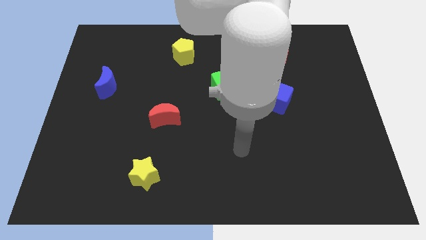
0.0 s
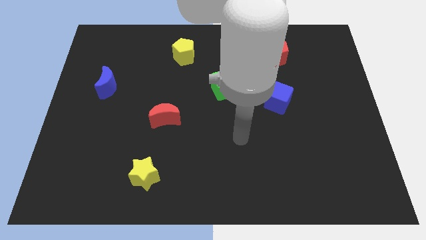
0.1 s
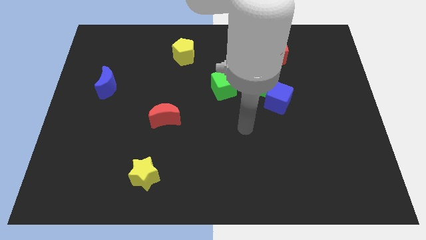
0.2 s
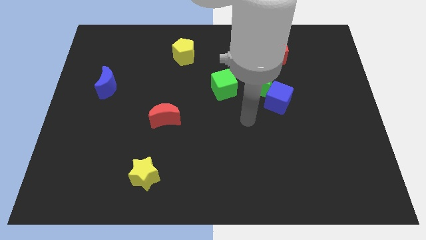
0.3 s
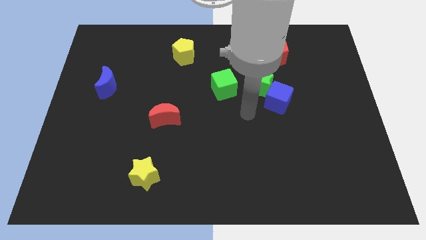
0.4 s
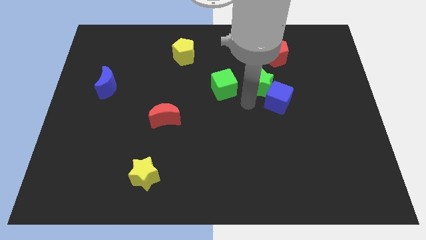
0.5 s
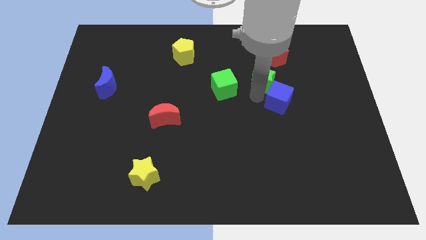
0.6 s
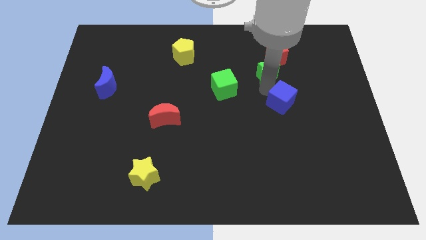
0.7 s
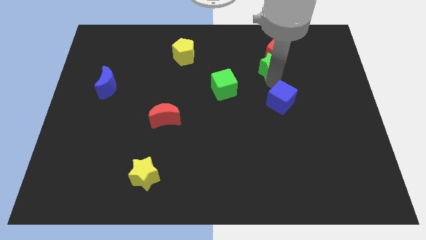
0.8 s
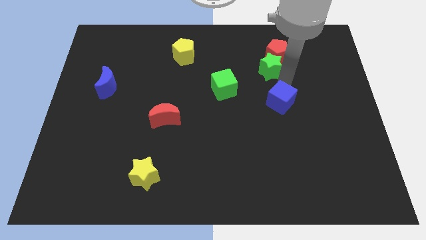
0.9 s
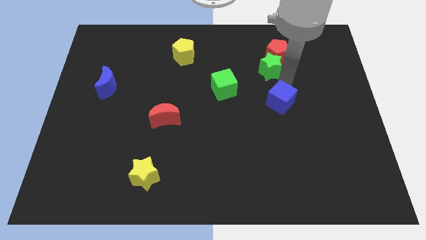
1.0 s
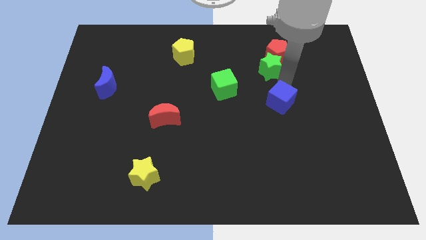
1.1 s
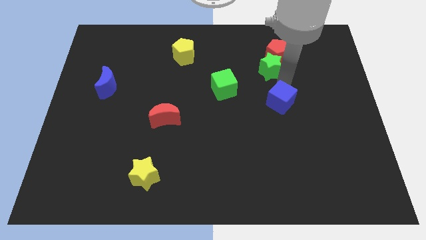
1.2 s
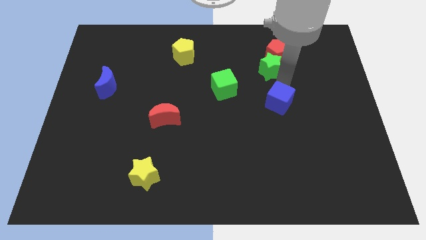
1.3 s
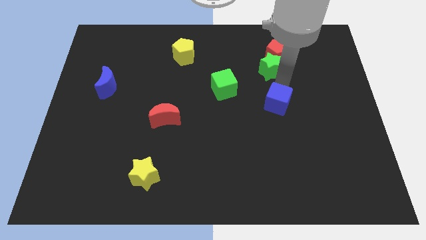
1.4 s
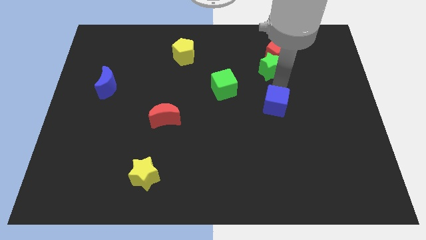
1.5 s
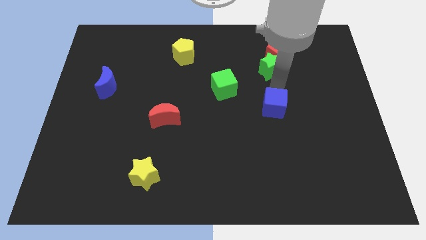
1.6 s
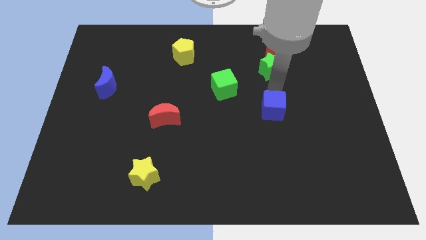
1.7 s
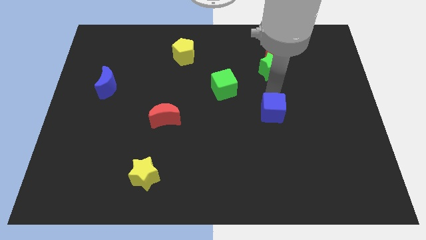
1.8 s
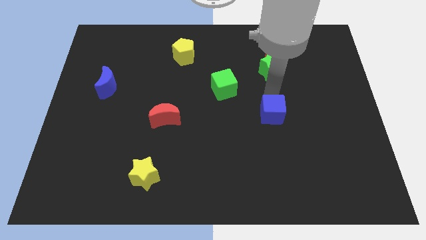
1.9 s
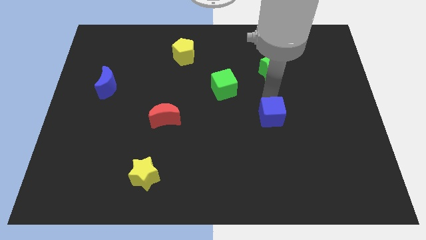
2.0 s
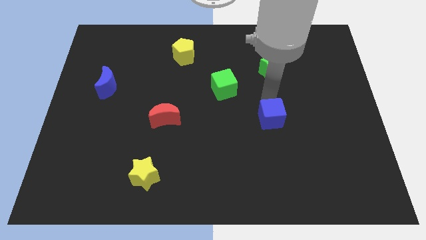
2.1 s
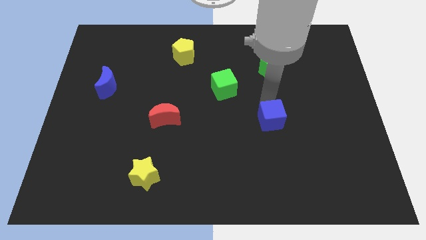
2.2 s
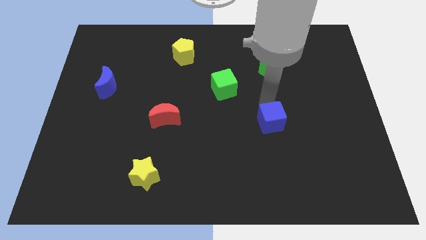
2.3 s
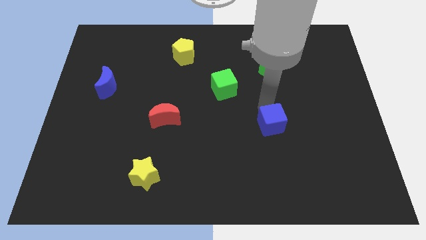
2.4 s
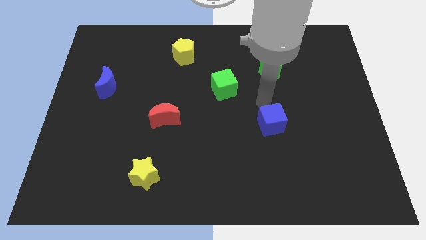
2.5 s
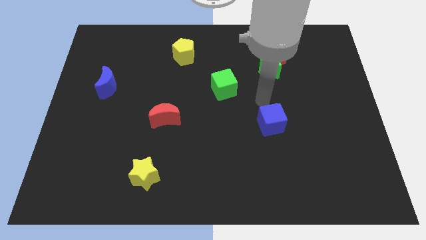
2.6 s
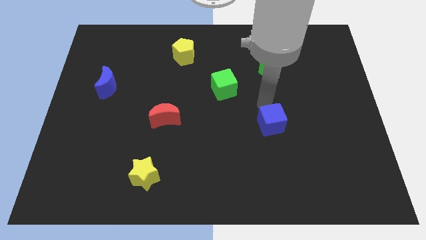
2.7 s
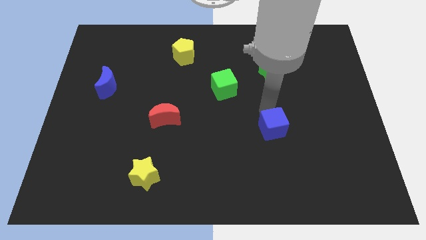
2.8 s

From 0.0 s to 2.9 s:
slightly slide the blue cube downwards

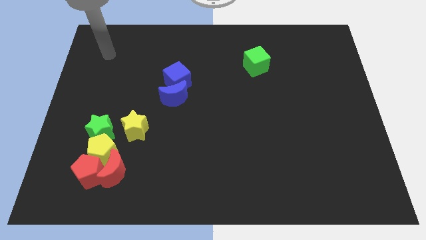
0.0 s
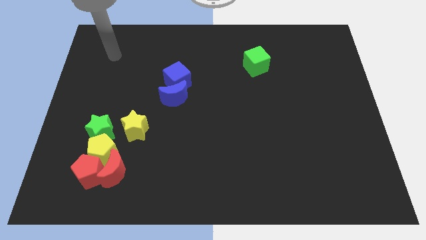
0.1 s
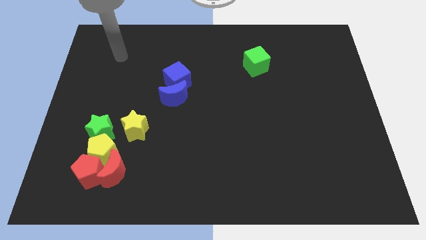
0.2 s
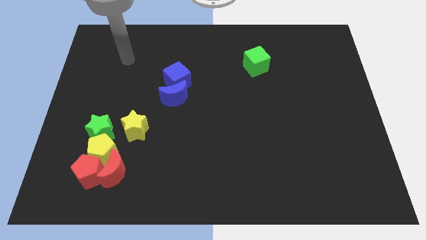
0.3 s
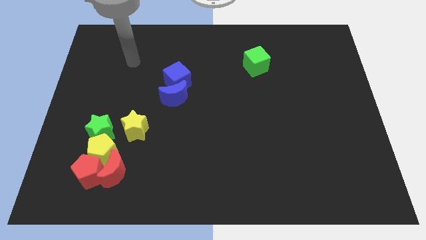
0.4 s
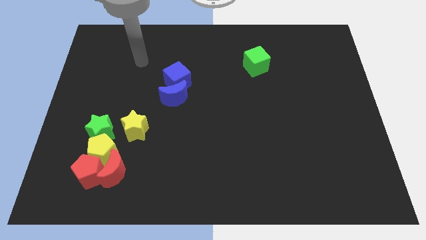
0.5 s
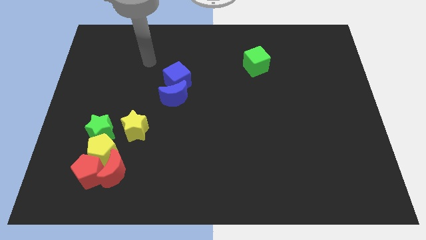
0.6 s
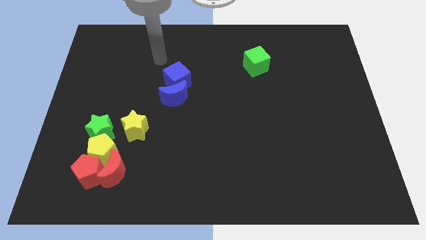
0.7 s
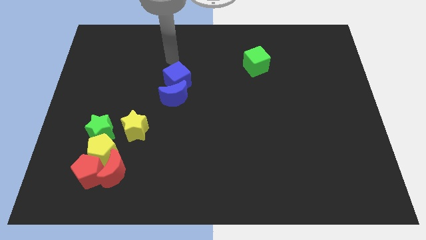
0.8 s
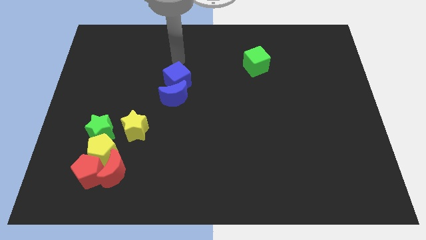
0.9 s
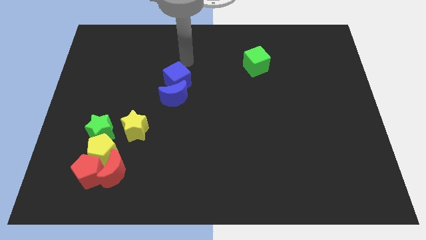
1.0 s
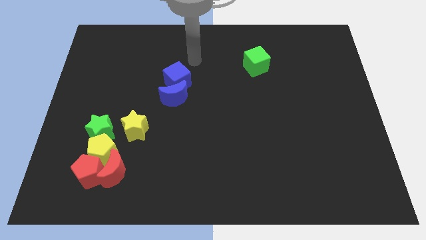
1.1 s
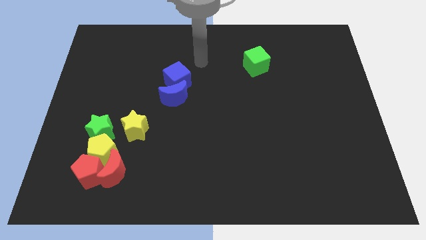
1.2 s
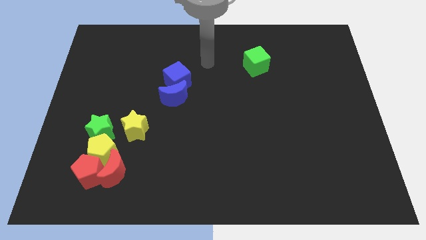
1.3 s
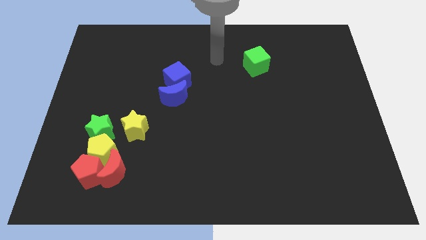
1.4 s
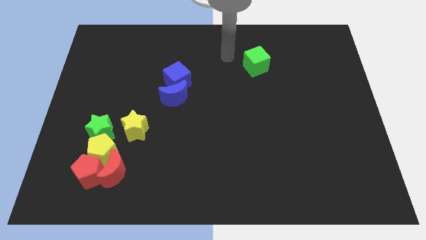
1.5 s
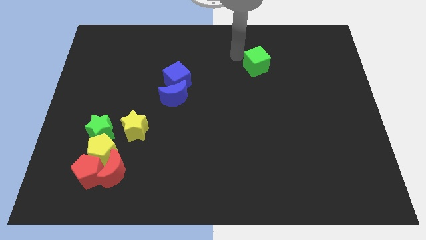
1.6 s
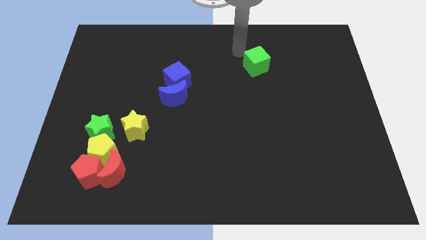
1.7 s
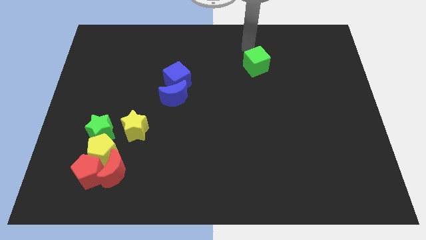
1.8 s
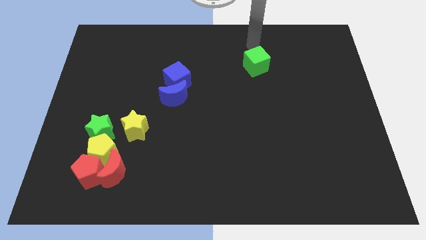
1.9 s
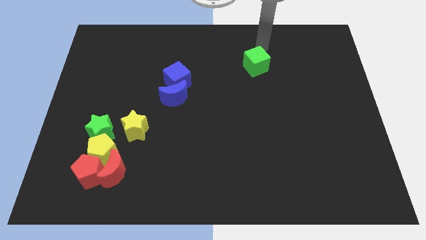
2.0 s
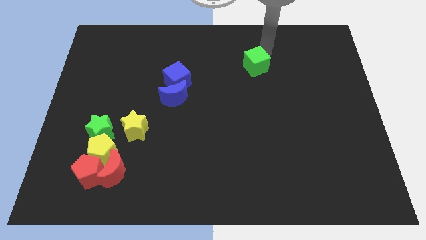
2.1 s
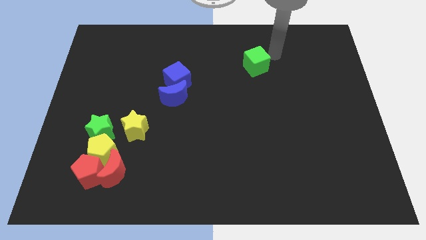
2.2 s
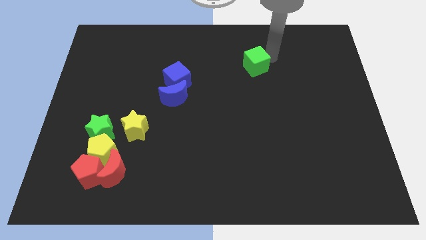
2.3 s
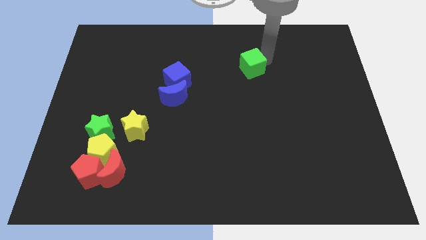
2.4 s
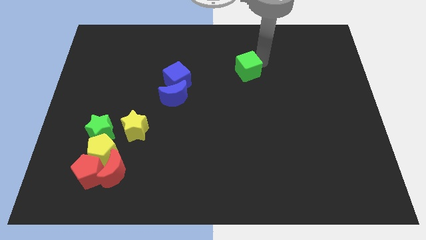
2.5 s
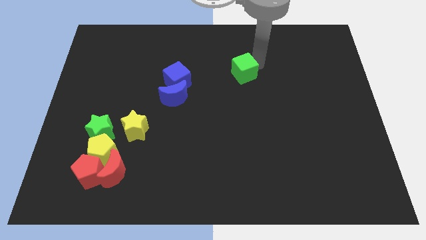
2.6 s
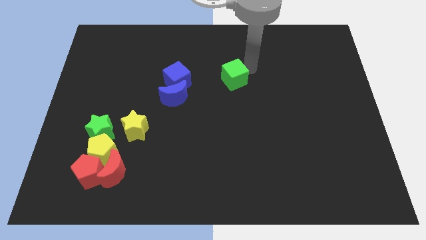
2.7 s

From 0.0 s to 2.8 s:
move the green cube somewhat down and then left

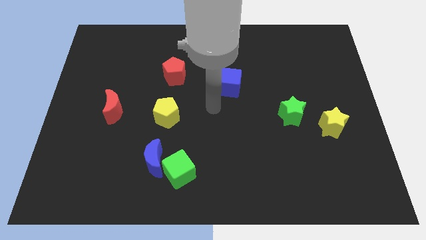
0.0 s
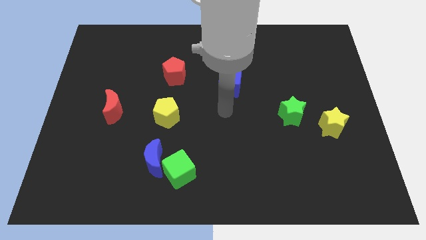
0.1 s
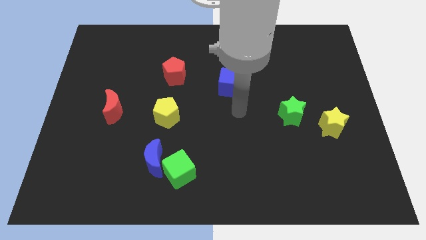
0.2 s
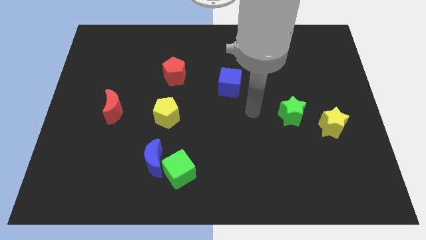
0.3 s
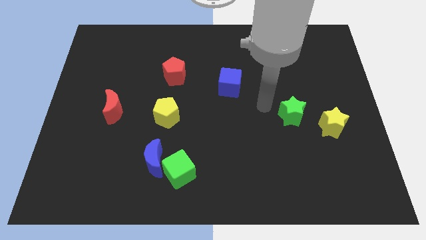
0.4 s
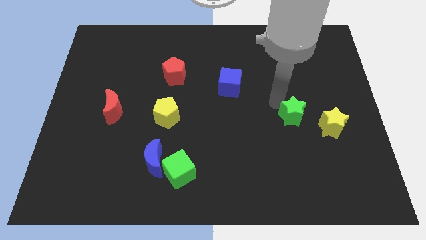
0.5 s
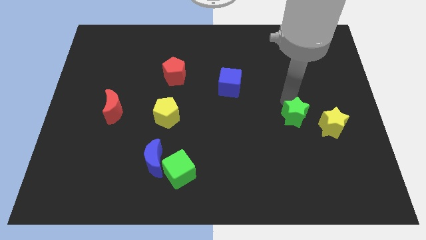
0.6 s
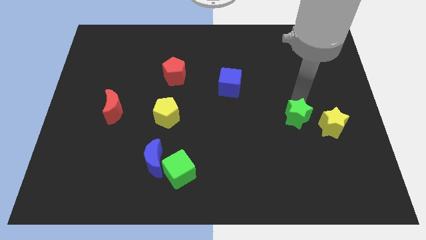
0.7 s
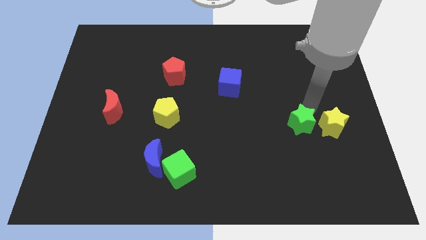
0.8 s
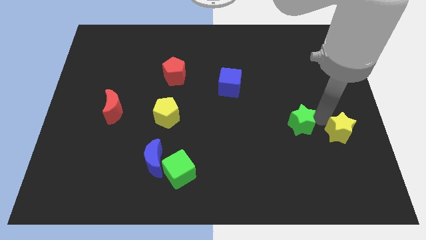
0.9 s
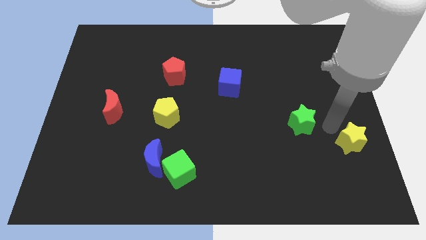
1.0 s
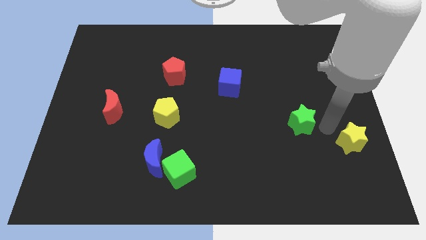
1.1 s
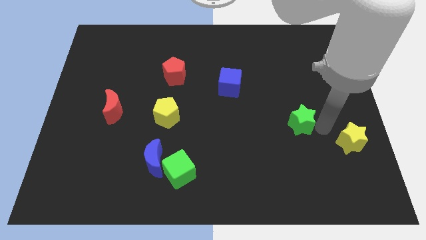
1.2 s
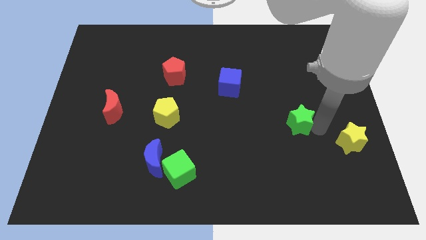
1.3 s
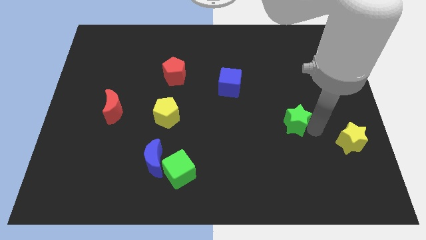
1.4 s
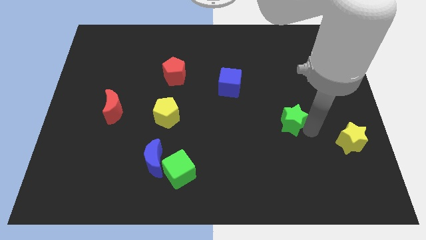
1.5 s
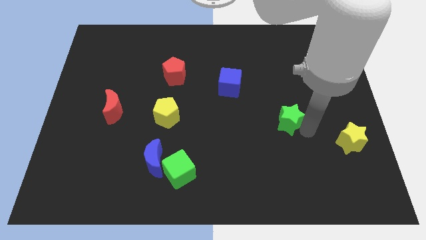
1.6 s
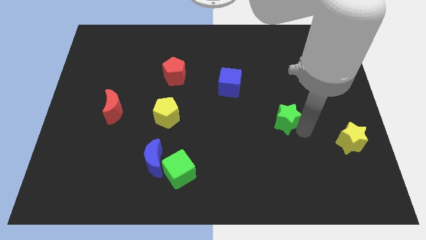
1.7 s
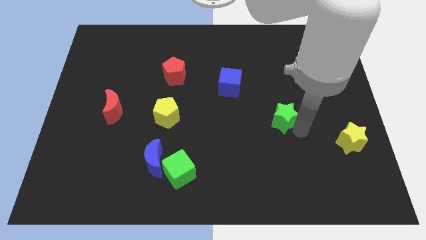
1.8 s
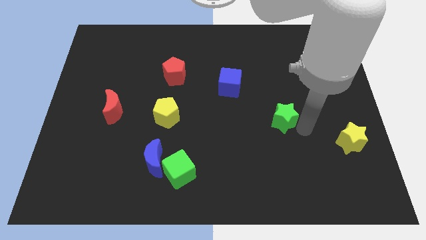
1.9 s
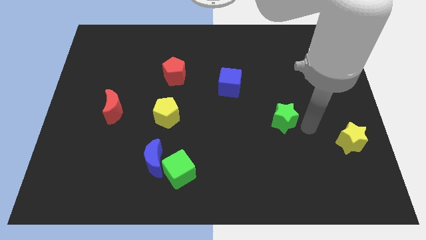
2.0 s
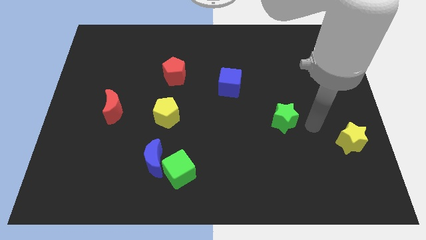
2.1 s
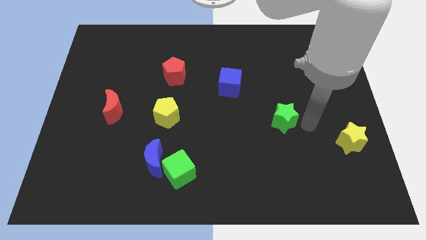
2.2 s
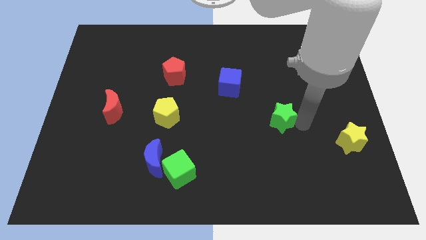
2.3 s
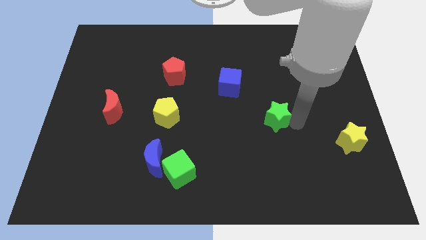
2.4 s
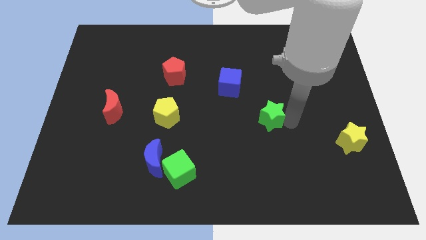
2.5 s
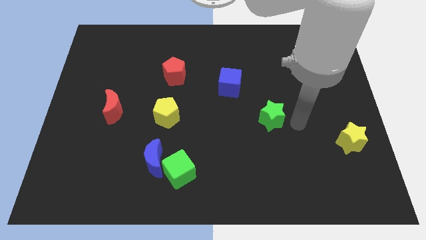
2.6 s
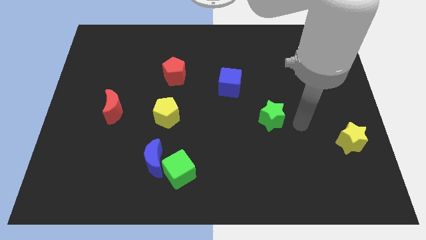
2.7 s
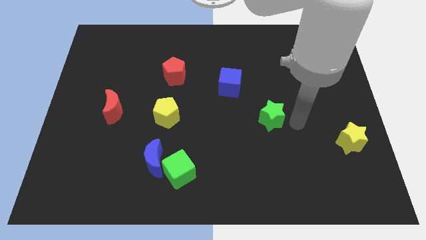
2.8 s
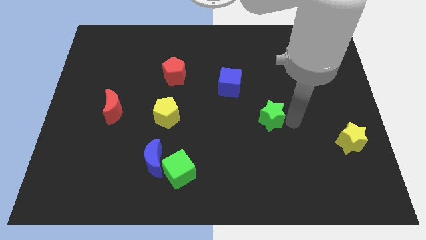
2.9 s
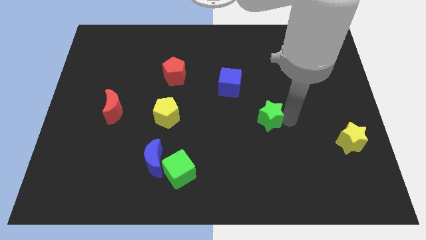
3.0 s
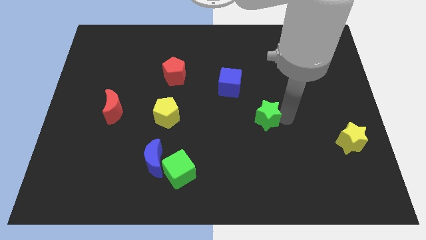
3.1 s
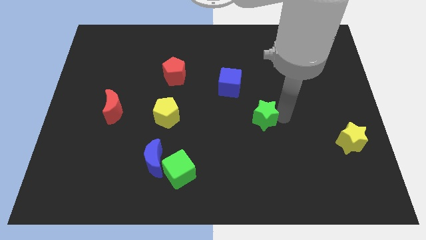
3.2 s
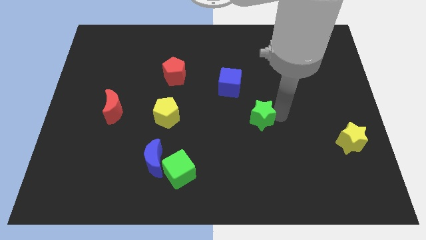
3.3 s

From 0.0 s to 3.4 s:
slide the green star a little to the left
